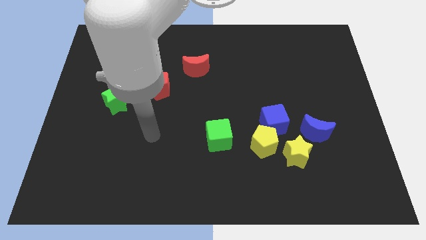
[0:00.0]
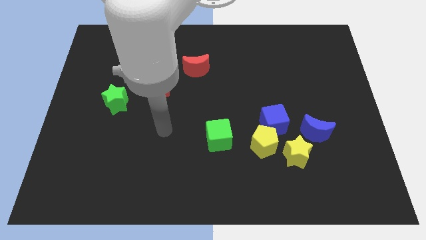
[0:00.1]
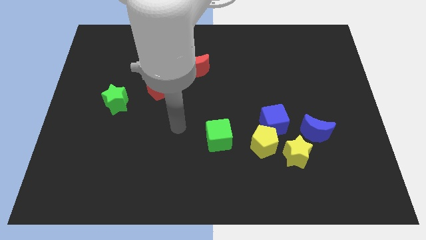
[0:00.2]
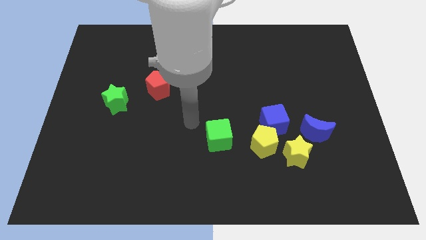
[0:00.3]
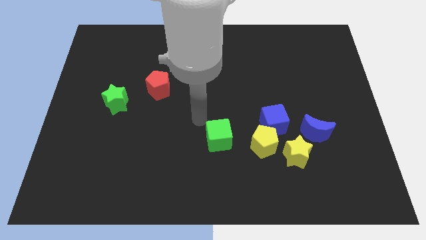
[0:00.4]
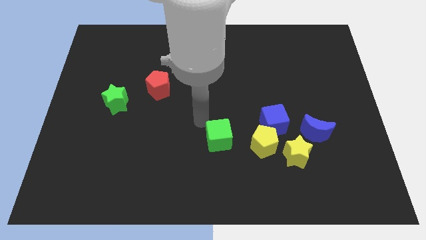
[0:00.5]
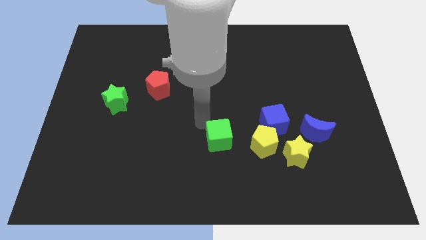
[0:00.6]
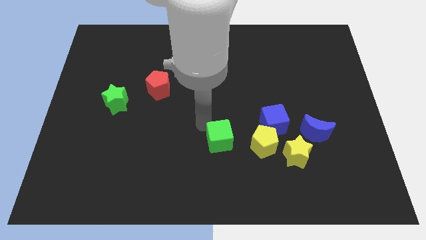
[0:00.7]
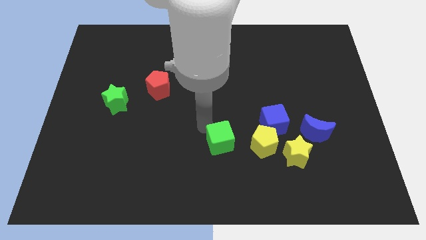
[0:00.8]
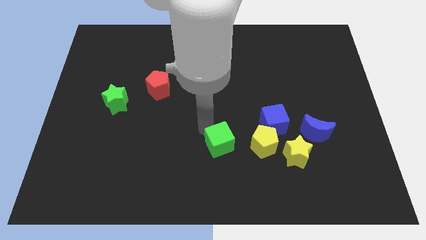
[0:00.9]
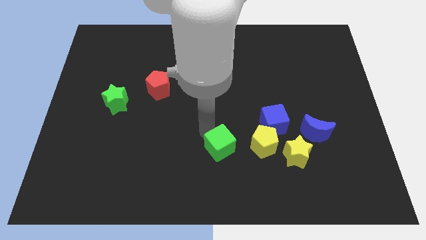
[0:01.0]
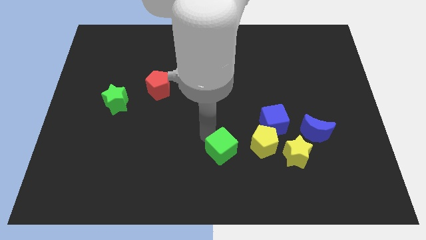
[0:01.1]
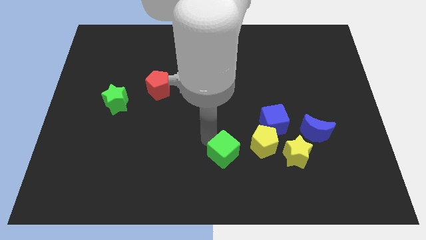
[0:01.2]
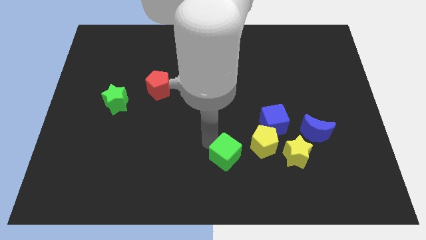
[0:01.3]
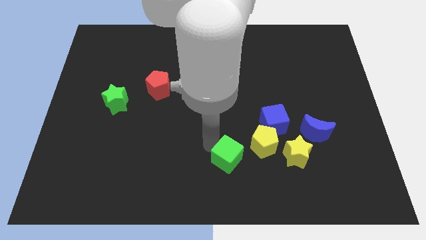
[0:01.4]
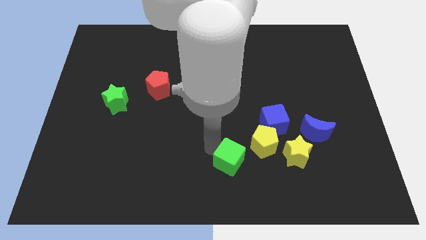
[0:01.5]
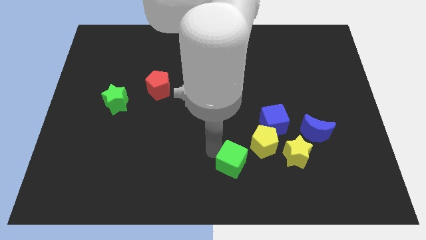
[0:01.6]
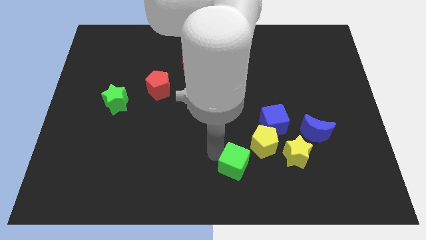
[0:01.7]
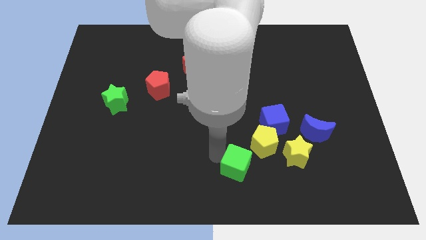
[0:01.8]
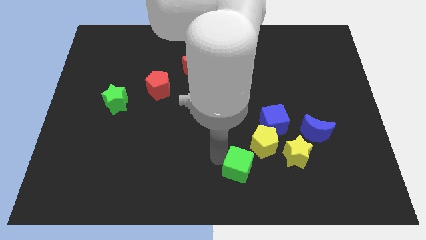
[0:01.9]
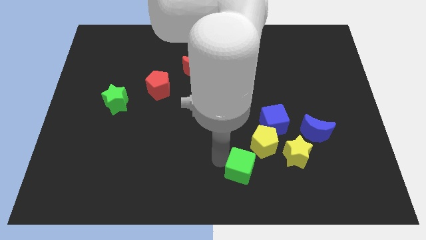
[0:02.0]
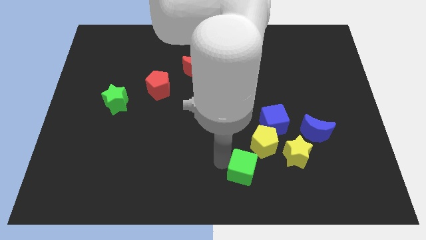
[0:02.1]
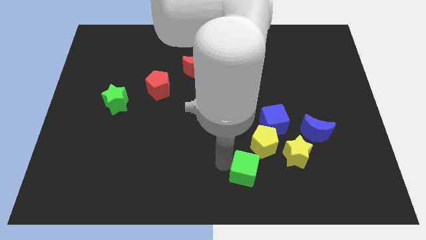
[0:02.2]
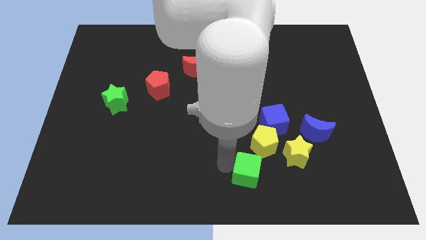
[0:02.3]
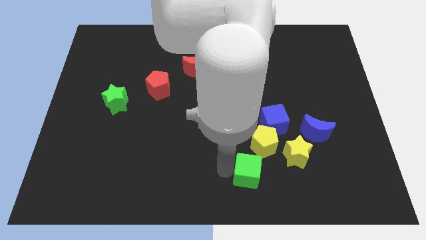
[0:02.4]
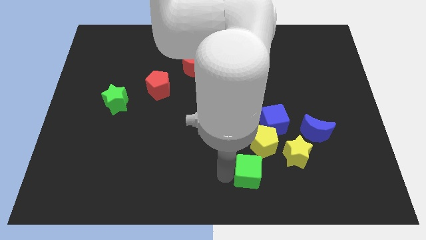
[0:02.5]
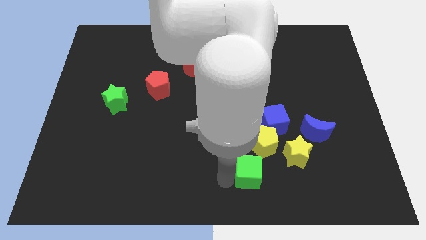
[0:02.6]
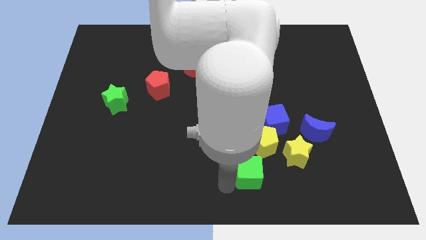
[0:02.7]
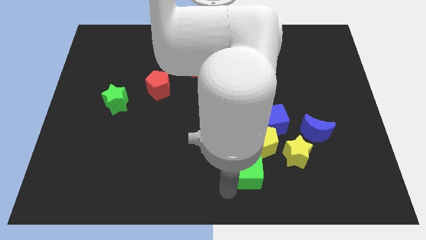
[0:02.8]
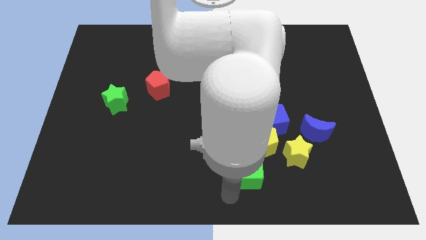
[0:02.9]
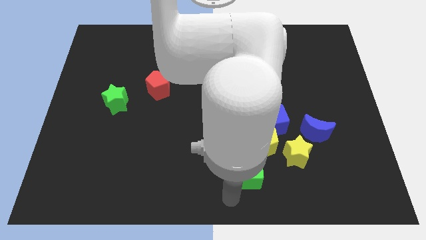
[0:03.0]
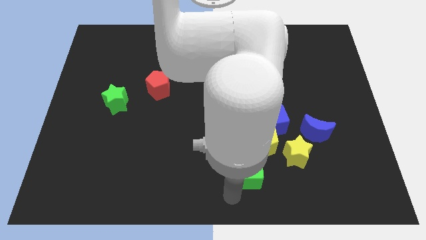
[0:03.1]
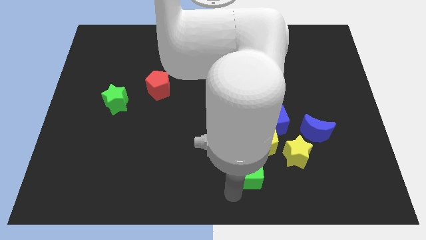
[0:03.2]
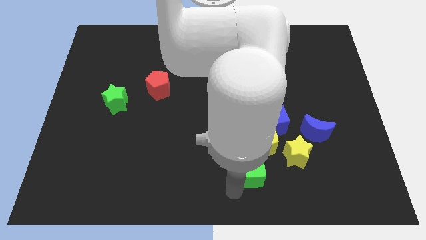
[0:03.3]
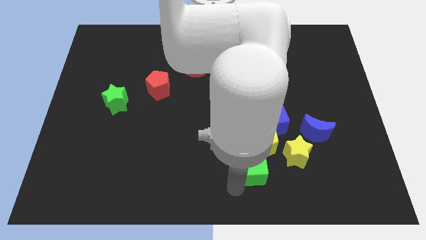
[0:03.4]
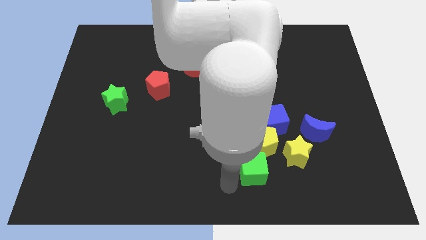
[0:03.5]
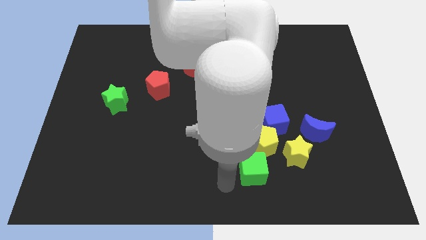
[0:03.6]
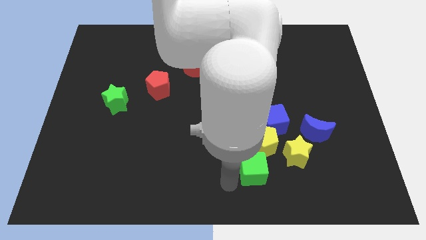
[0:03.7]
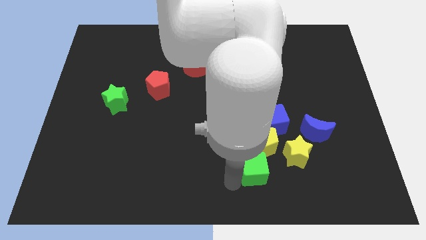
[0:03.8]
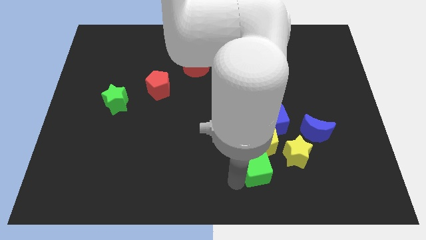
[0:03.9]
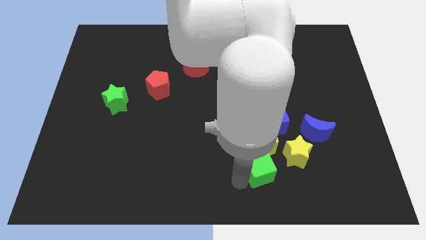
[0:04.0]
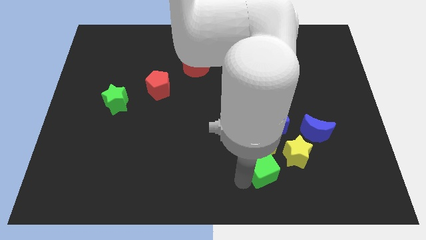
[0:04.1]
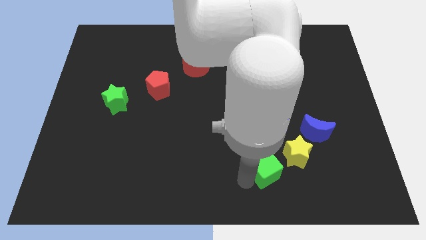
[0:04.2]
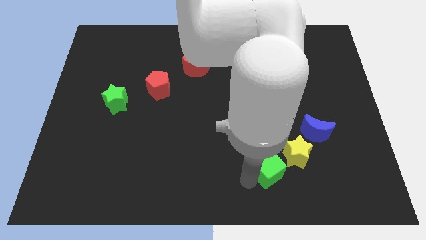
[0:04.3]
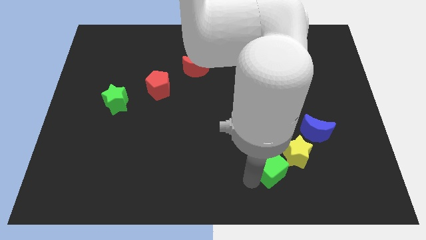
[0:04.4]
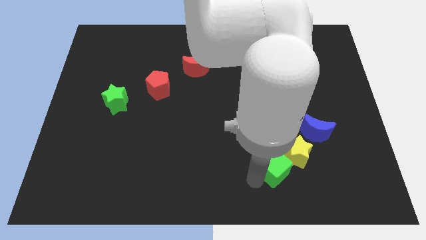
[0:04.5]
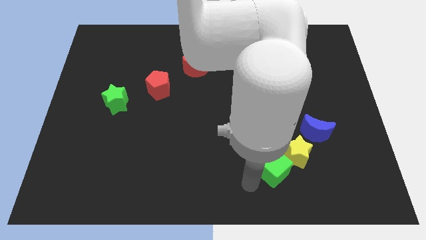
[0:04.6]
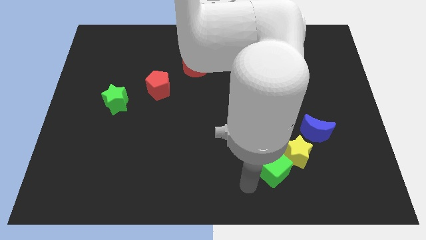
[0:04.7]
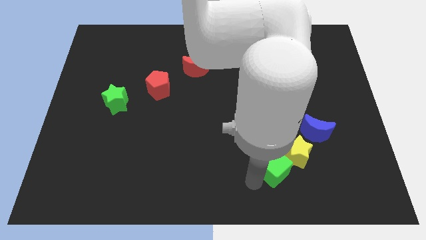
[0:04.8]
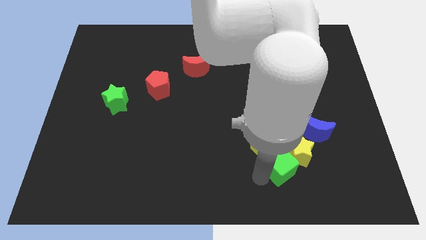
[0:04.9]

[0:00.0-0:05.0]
move the green cube towards the yellow star

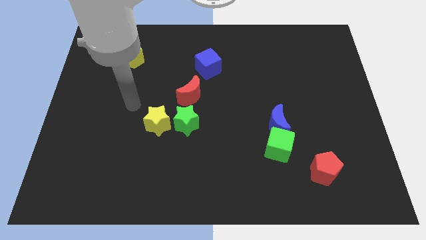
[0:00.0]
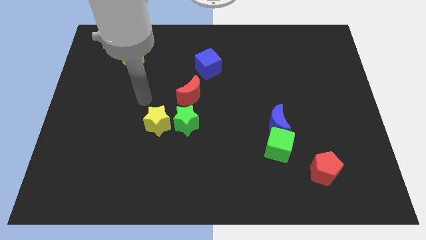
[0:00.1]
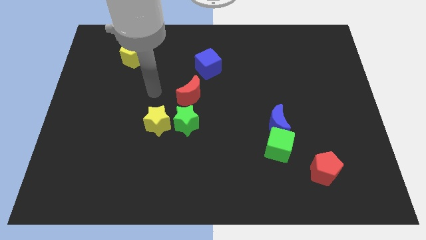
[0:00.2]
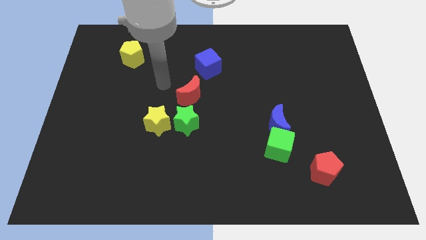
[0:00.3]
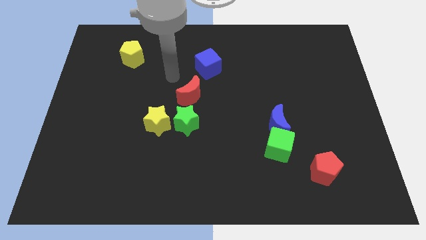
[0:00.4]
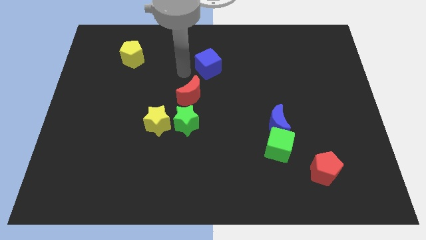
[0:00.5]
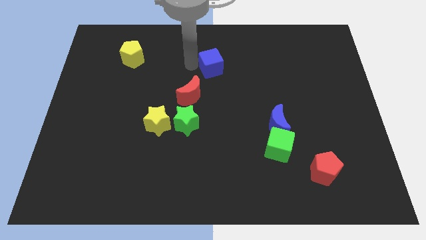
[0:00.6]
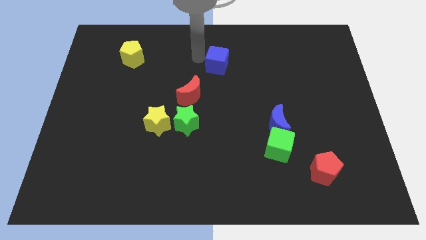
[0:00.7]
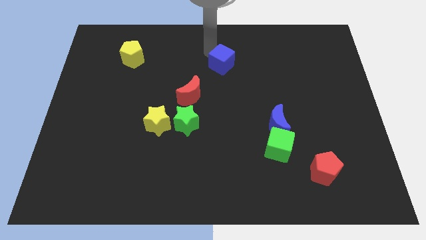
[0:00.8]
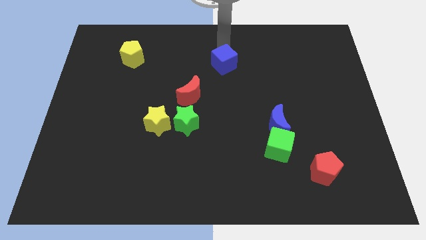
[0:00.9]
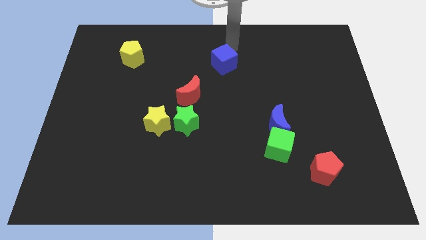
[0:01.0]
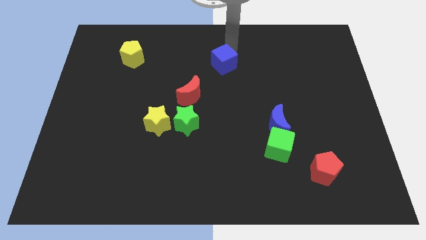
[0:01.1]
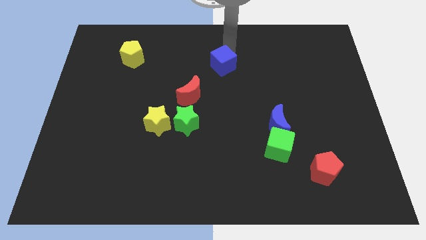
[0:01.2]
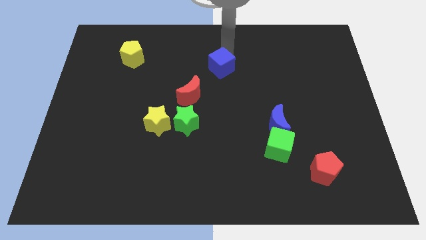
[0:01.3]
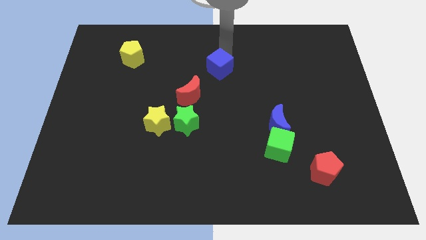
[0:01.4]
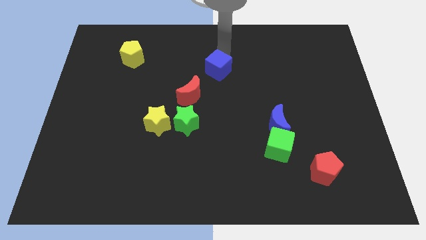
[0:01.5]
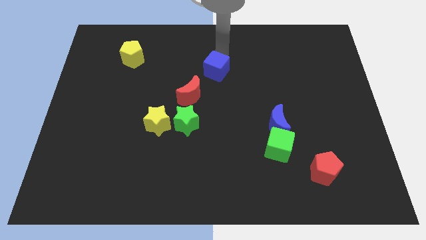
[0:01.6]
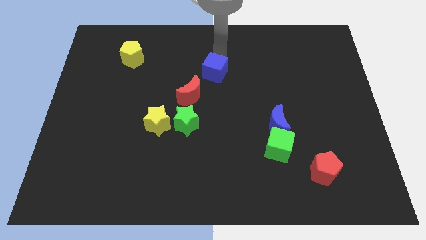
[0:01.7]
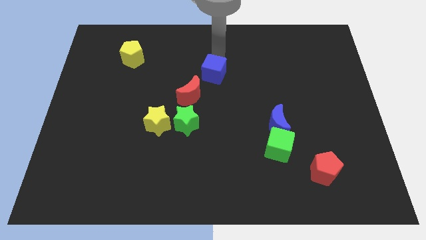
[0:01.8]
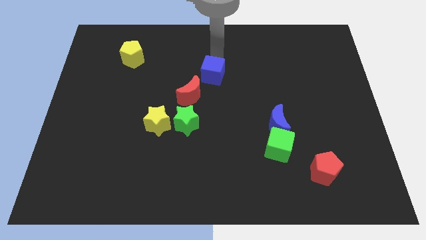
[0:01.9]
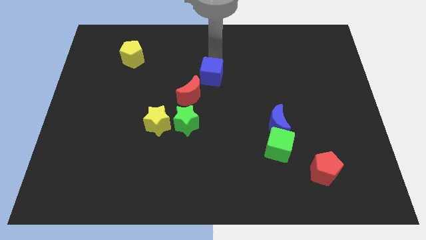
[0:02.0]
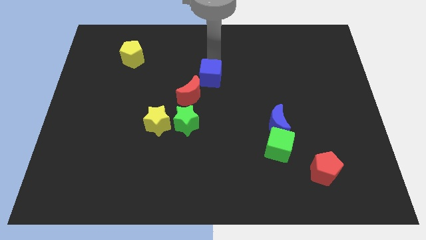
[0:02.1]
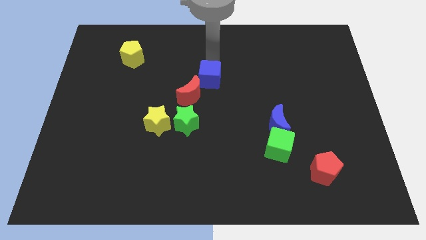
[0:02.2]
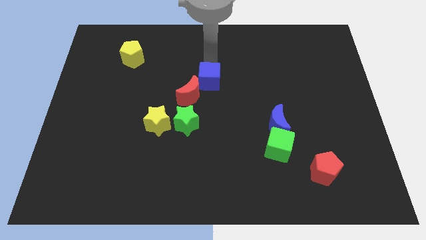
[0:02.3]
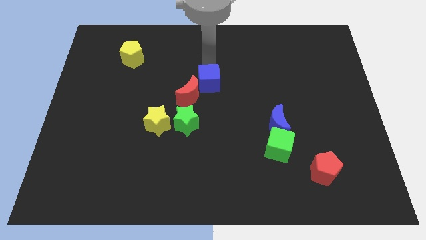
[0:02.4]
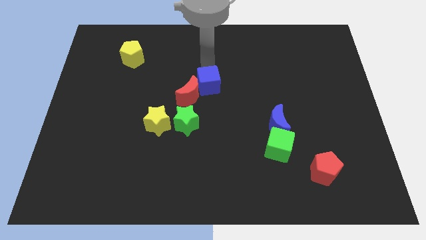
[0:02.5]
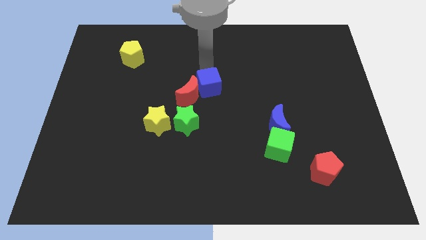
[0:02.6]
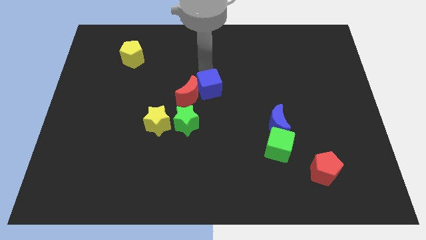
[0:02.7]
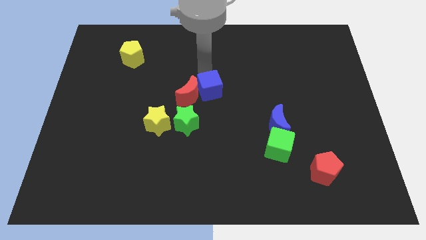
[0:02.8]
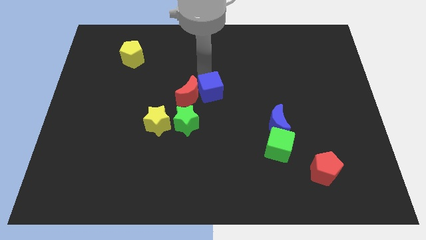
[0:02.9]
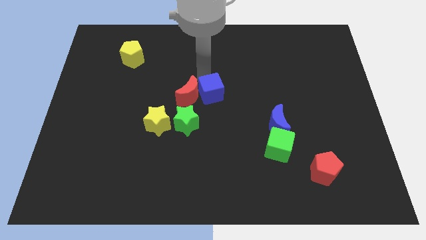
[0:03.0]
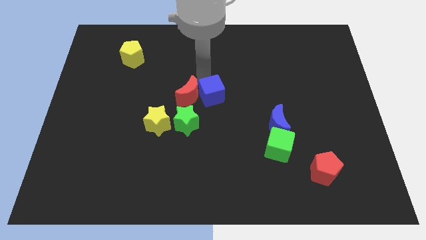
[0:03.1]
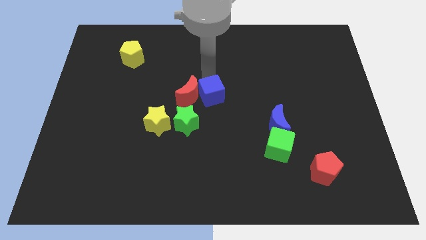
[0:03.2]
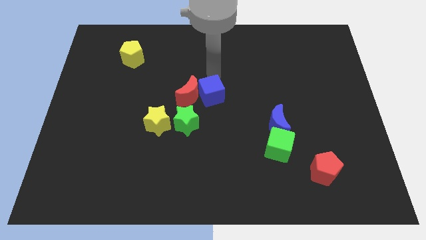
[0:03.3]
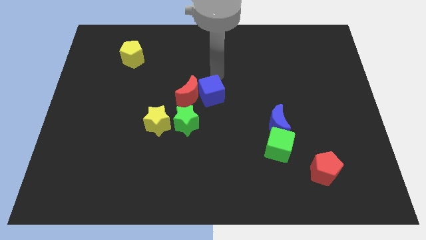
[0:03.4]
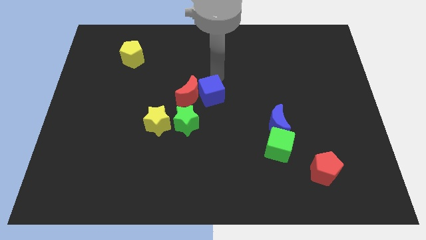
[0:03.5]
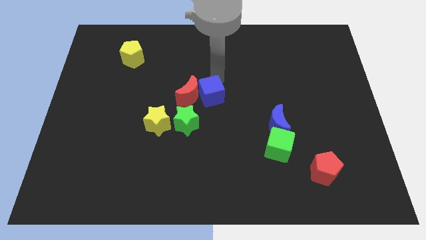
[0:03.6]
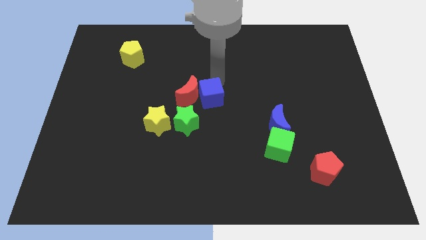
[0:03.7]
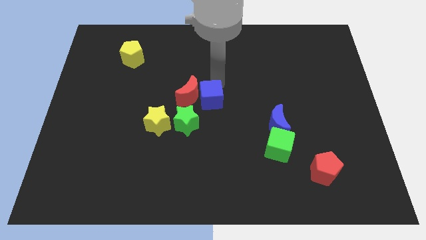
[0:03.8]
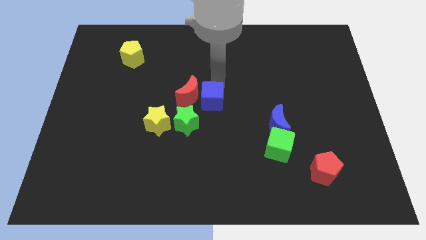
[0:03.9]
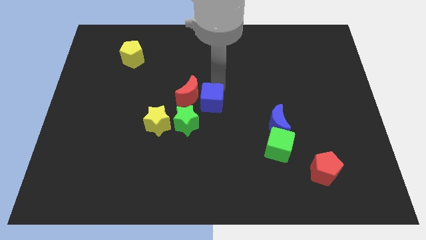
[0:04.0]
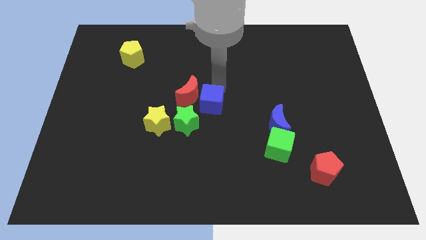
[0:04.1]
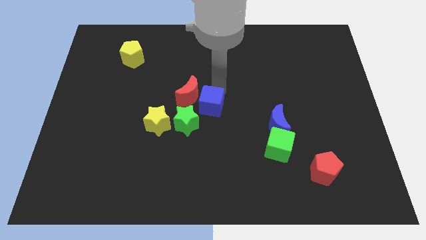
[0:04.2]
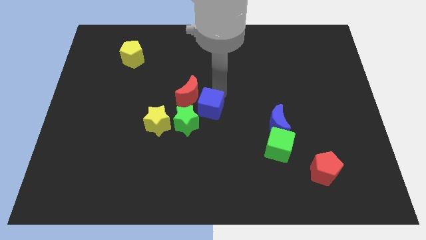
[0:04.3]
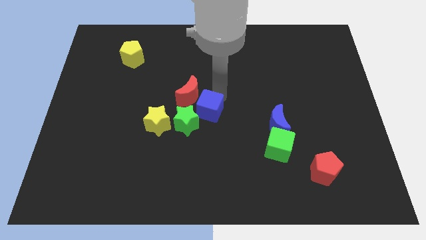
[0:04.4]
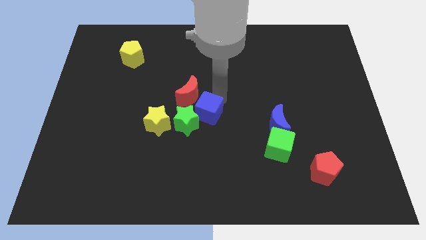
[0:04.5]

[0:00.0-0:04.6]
move the blue cube towards the green star
